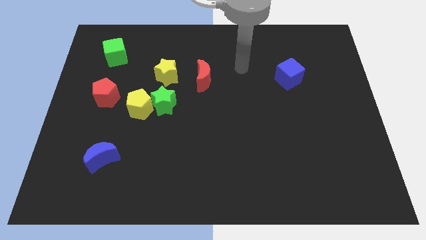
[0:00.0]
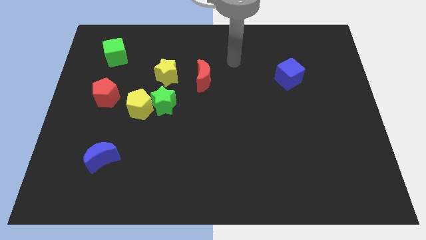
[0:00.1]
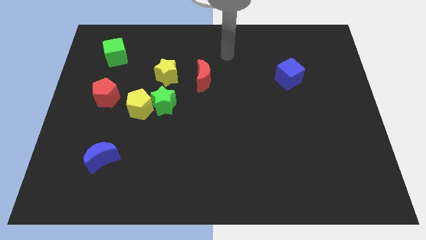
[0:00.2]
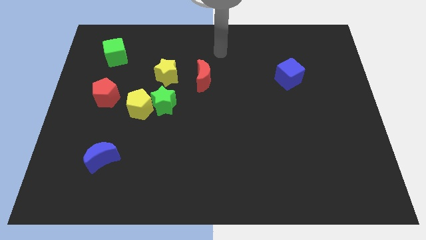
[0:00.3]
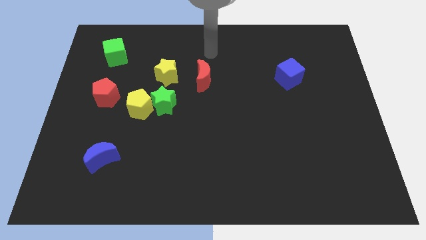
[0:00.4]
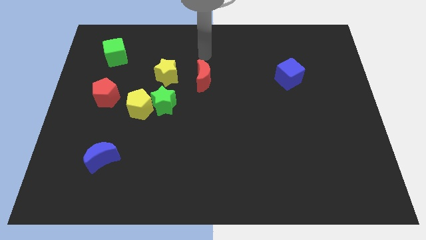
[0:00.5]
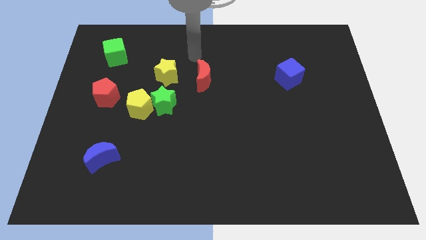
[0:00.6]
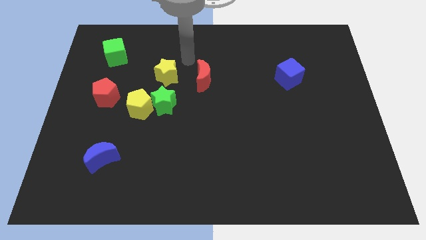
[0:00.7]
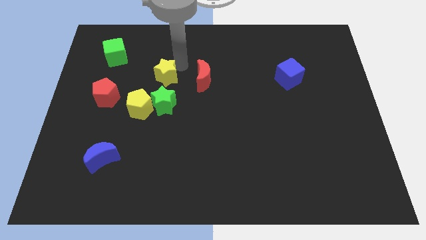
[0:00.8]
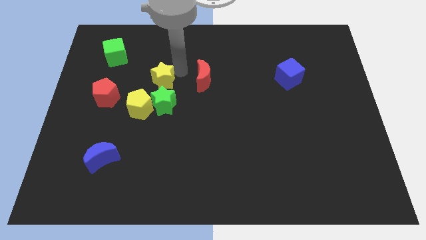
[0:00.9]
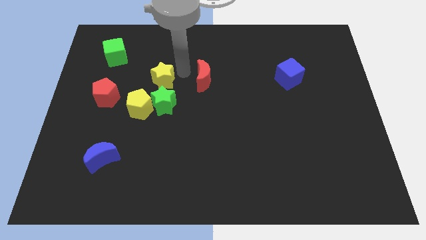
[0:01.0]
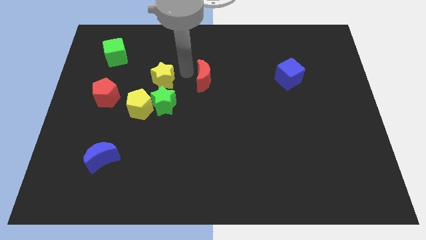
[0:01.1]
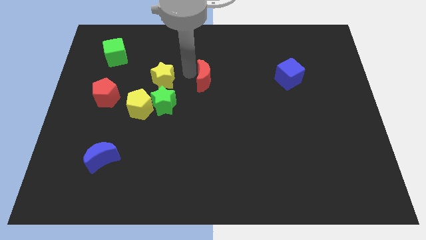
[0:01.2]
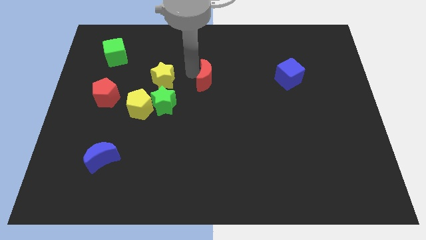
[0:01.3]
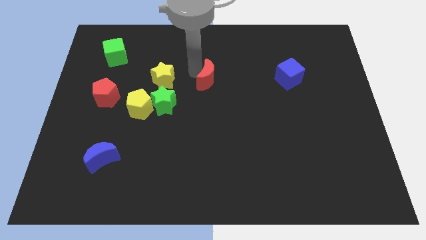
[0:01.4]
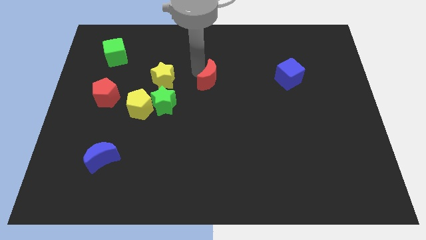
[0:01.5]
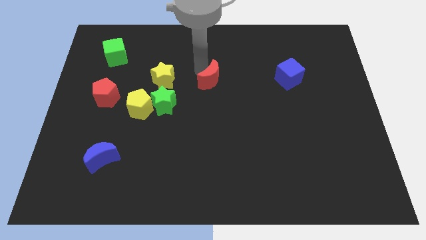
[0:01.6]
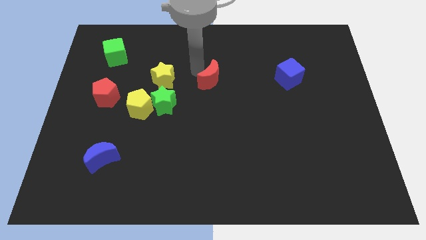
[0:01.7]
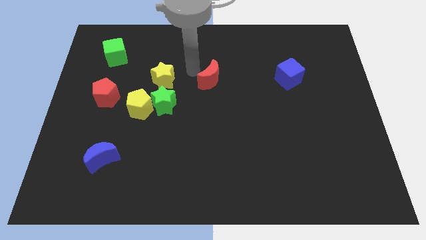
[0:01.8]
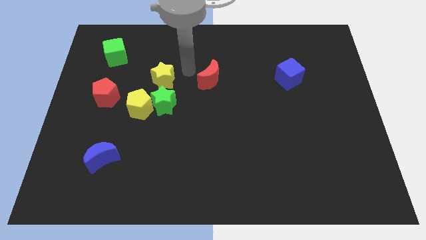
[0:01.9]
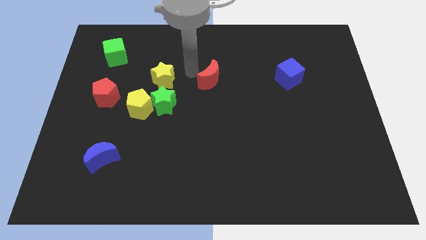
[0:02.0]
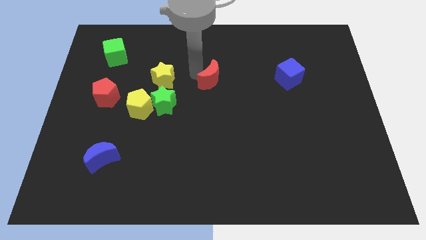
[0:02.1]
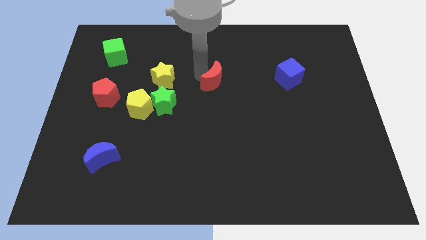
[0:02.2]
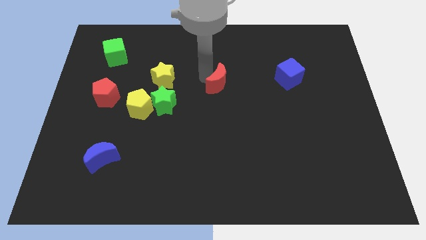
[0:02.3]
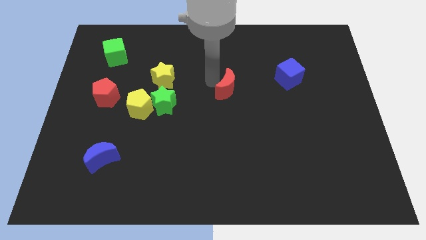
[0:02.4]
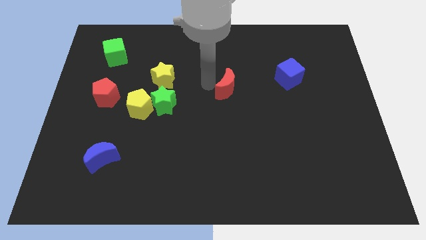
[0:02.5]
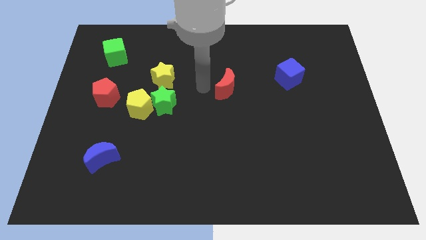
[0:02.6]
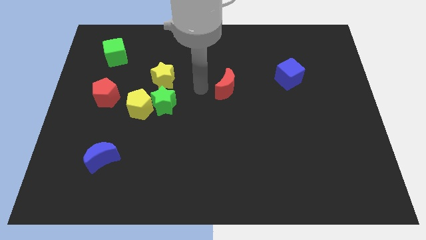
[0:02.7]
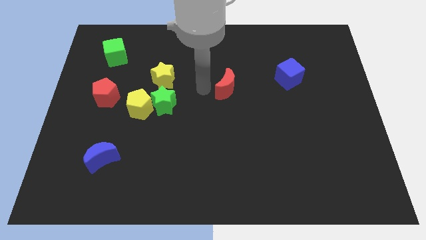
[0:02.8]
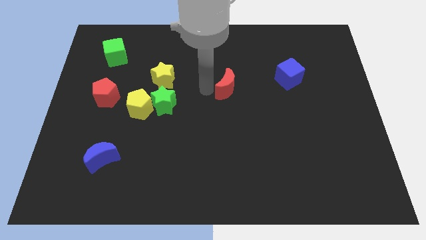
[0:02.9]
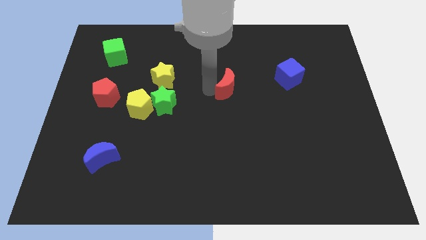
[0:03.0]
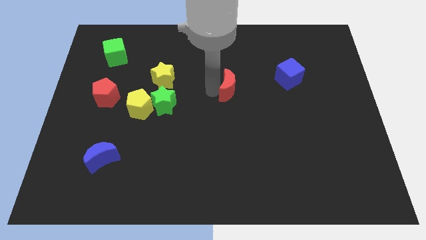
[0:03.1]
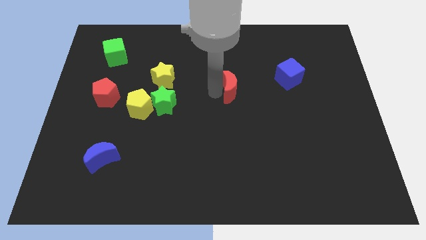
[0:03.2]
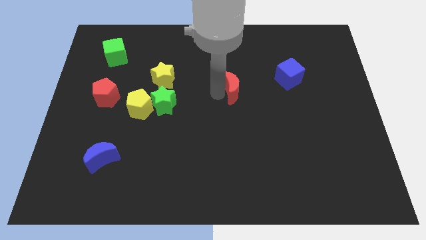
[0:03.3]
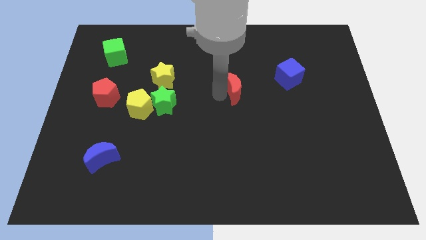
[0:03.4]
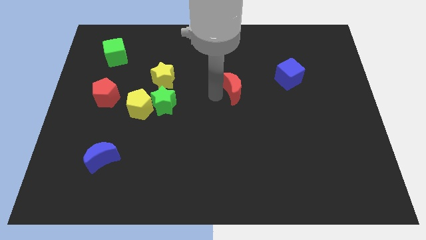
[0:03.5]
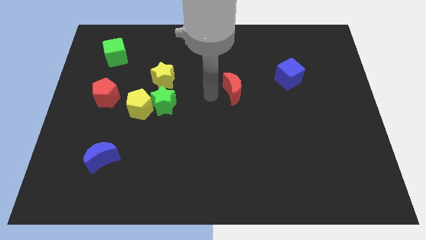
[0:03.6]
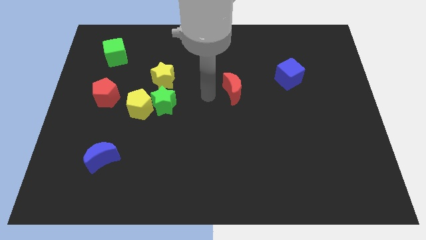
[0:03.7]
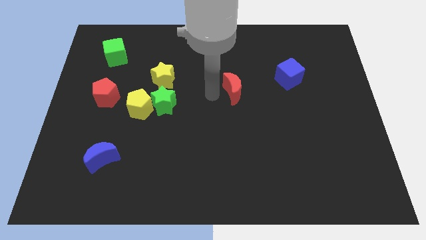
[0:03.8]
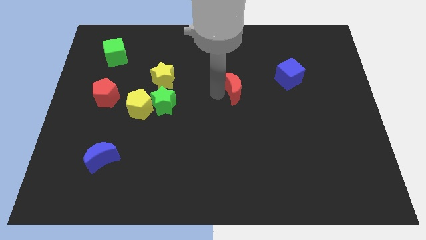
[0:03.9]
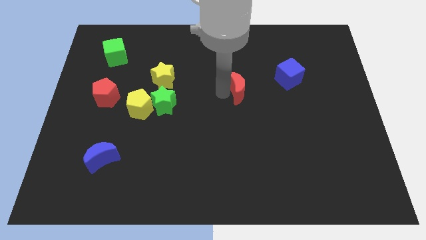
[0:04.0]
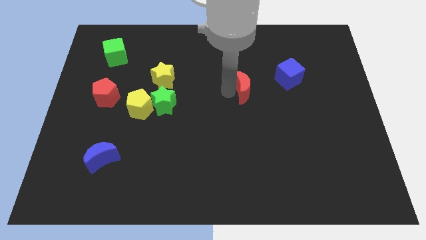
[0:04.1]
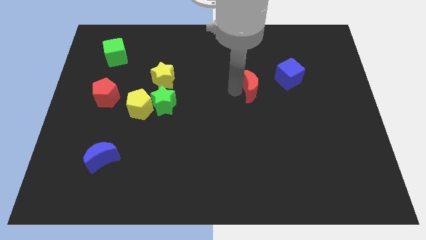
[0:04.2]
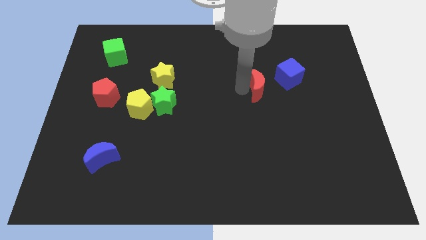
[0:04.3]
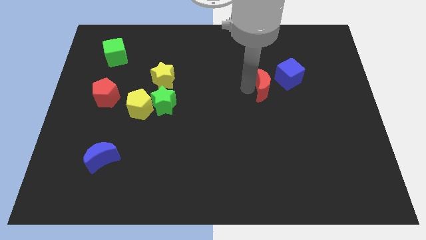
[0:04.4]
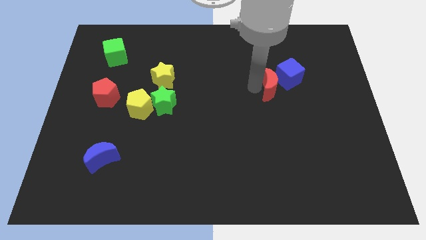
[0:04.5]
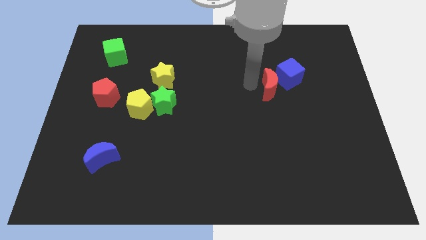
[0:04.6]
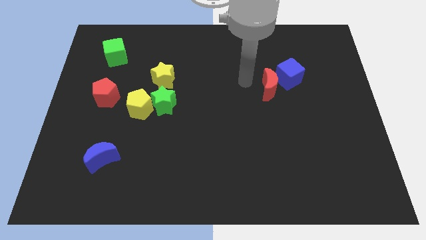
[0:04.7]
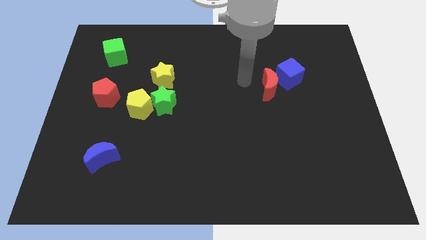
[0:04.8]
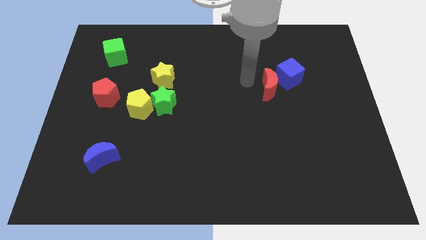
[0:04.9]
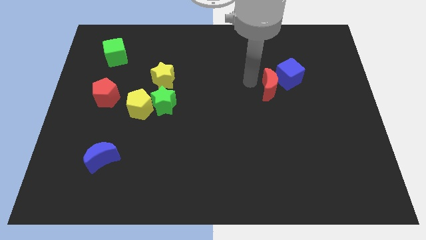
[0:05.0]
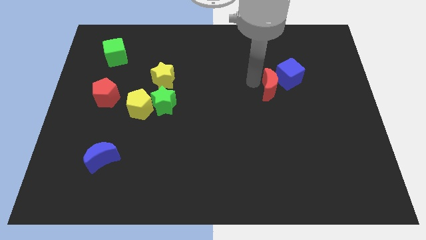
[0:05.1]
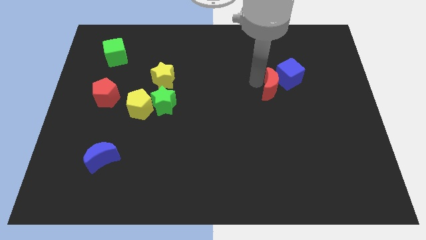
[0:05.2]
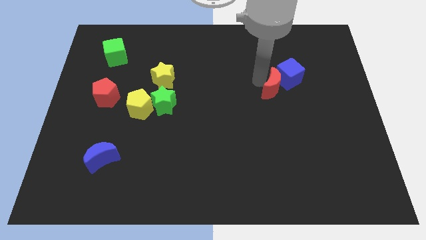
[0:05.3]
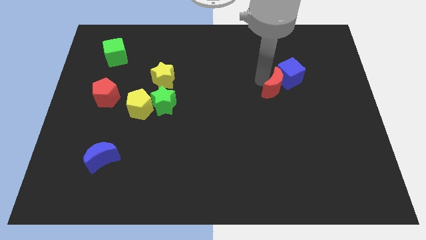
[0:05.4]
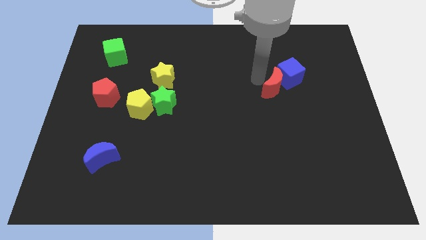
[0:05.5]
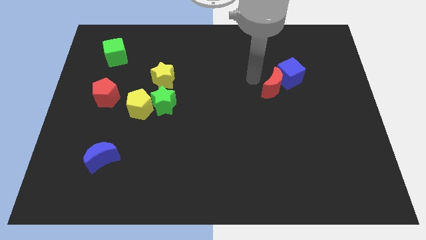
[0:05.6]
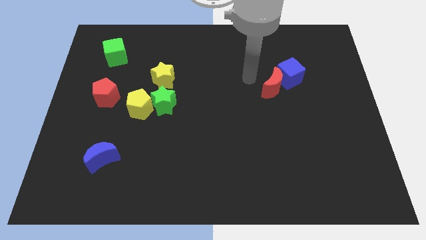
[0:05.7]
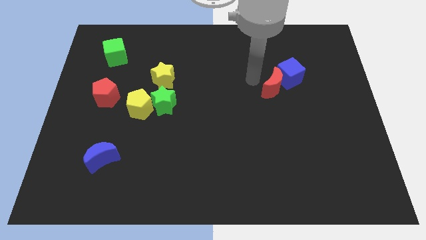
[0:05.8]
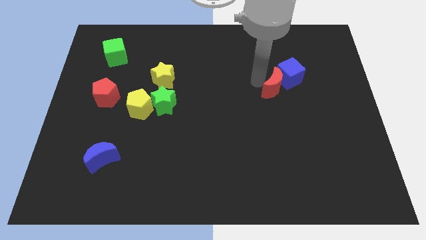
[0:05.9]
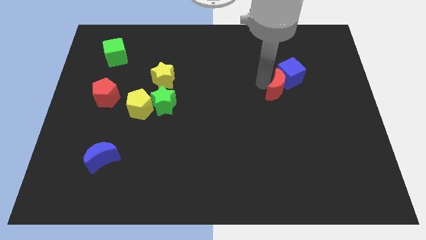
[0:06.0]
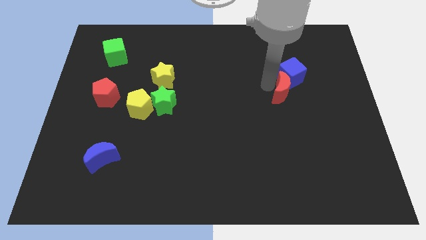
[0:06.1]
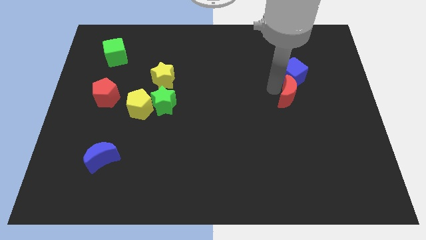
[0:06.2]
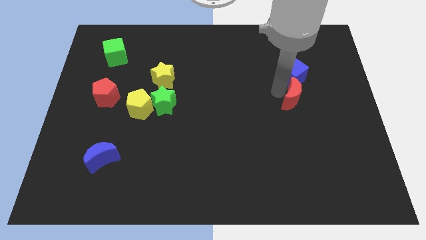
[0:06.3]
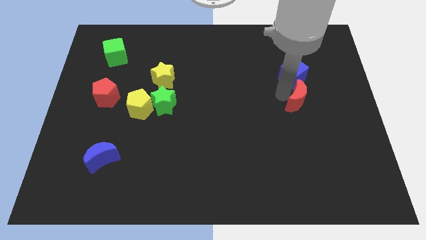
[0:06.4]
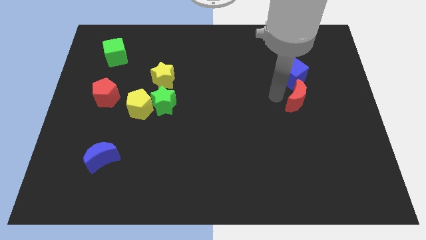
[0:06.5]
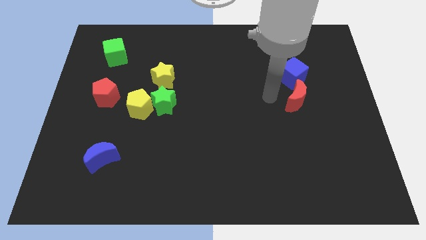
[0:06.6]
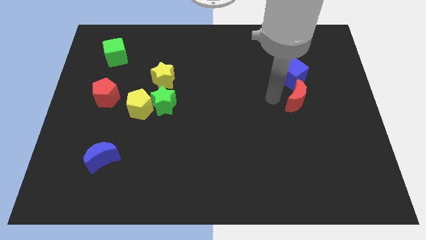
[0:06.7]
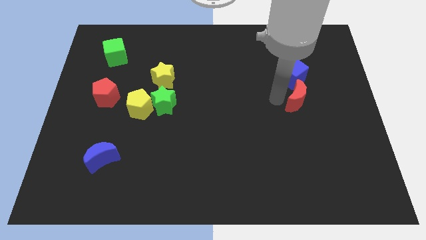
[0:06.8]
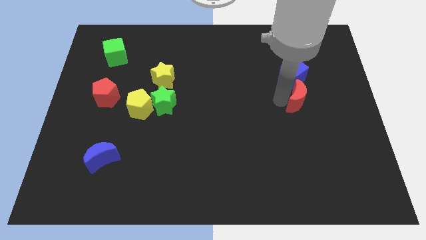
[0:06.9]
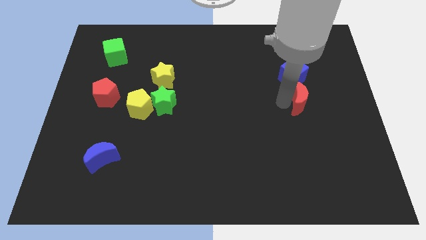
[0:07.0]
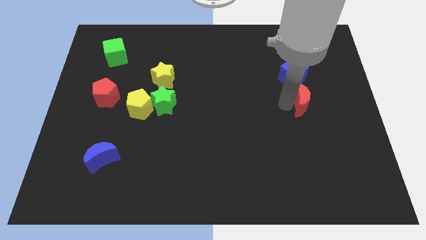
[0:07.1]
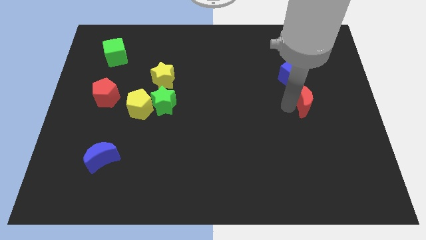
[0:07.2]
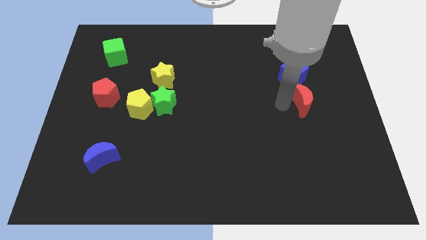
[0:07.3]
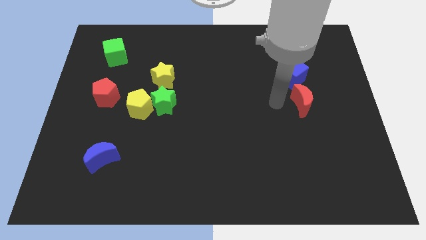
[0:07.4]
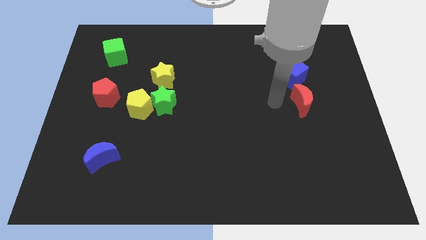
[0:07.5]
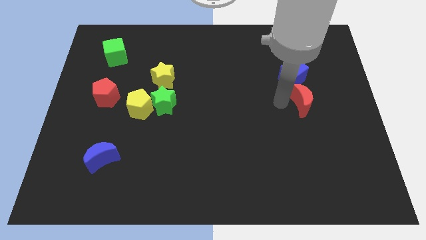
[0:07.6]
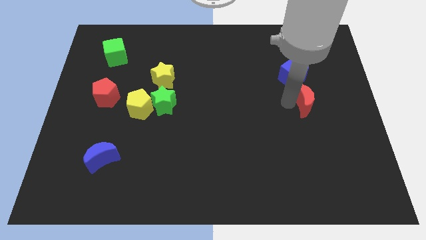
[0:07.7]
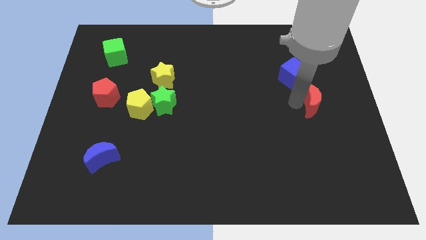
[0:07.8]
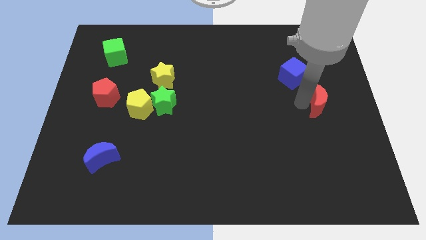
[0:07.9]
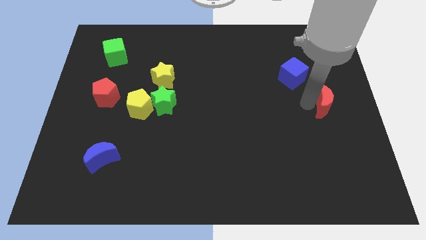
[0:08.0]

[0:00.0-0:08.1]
slide the red moon to the right side of the board
